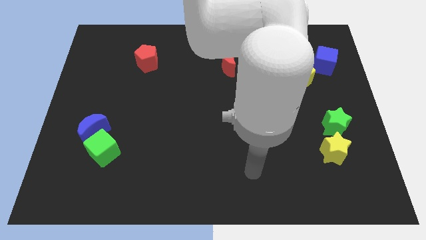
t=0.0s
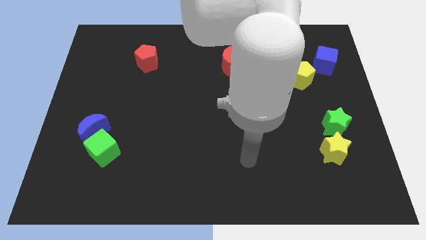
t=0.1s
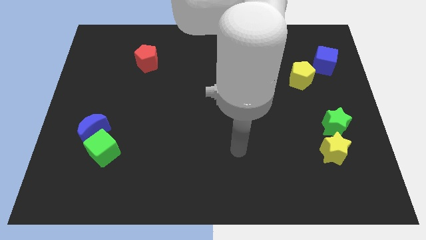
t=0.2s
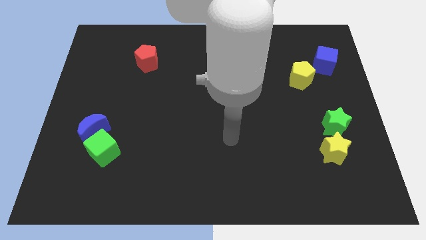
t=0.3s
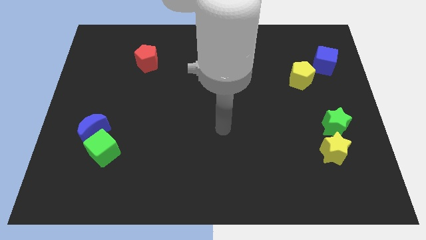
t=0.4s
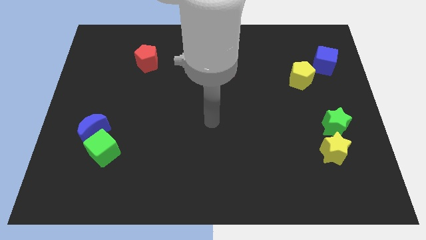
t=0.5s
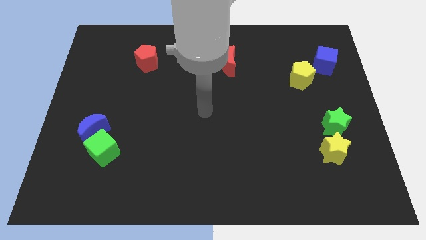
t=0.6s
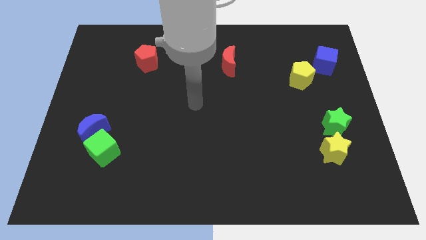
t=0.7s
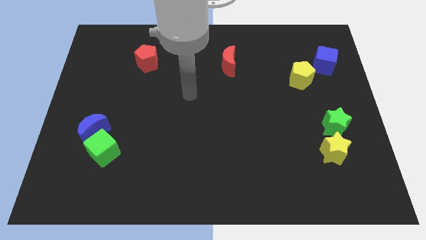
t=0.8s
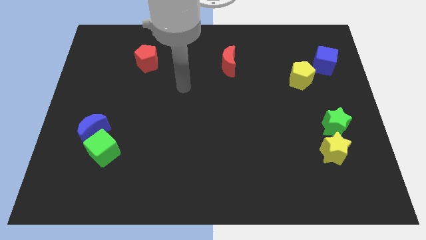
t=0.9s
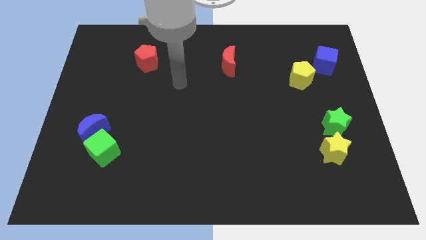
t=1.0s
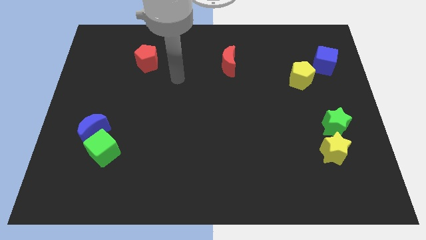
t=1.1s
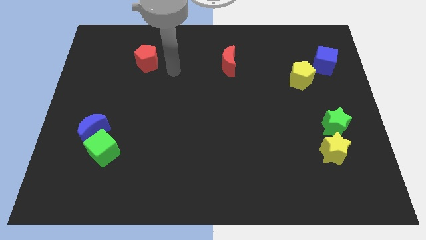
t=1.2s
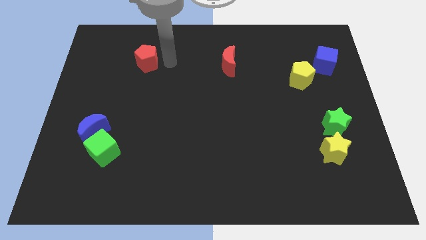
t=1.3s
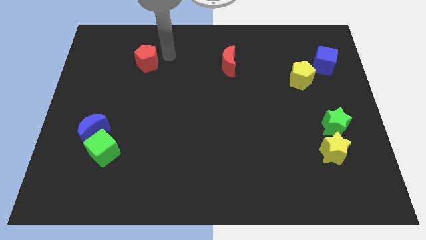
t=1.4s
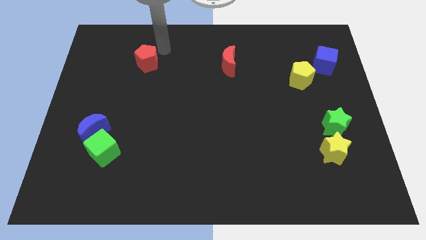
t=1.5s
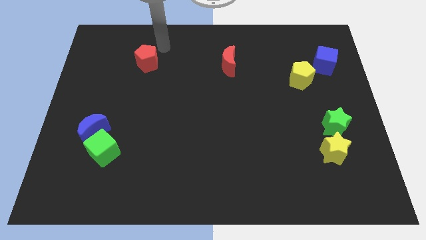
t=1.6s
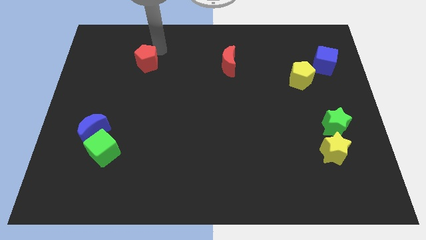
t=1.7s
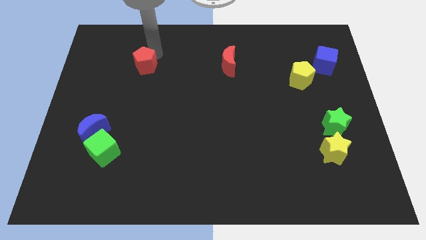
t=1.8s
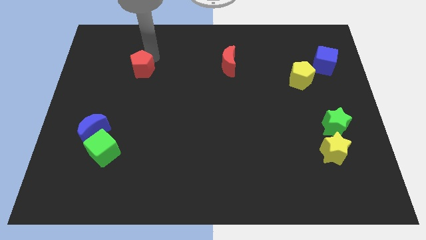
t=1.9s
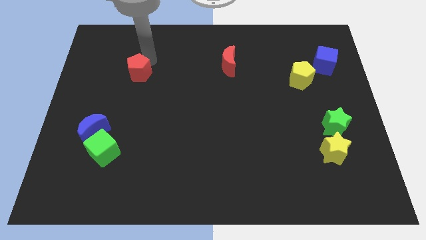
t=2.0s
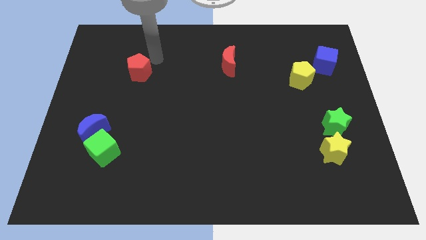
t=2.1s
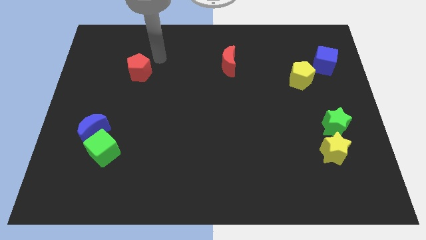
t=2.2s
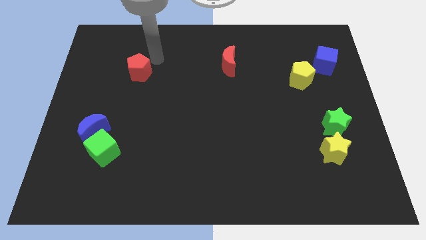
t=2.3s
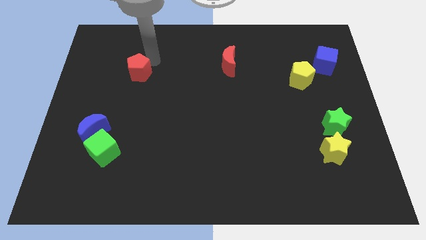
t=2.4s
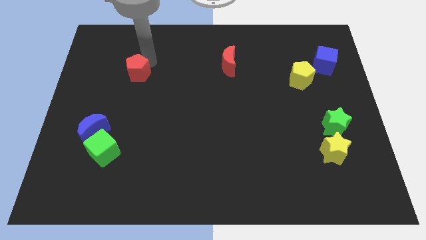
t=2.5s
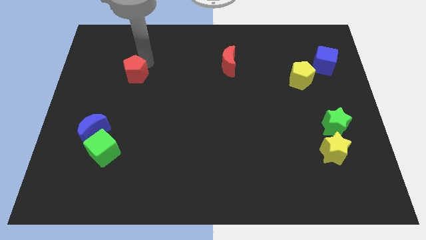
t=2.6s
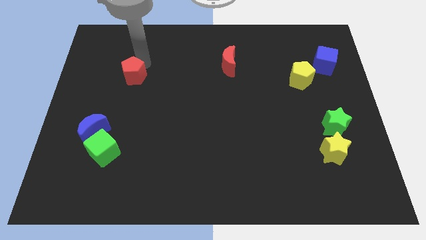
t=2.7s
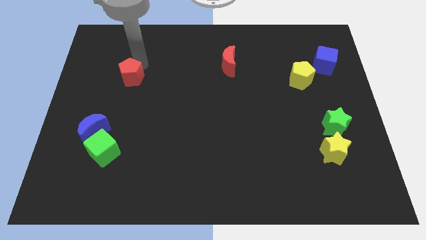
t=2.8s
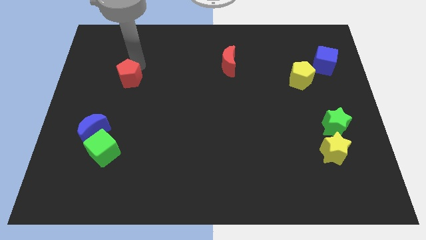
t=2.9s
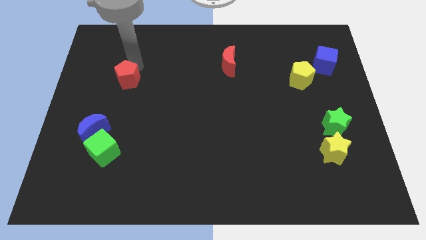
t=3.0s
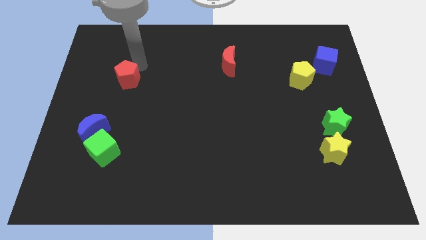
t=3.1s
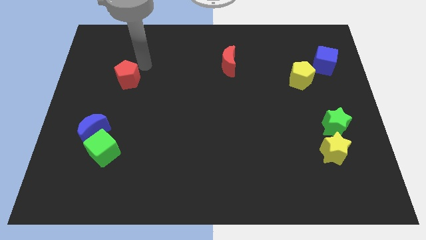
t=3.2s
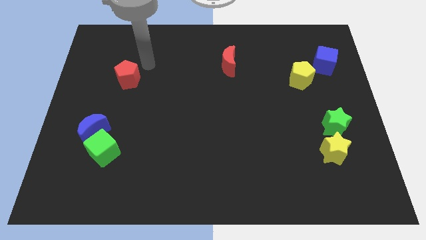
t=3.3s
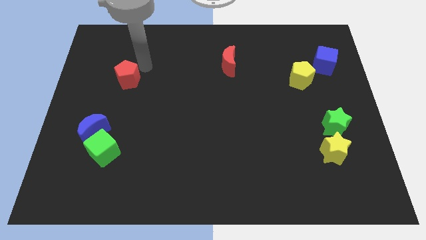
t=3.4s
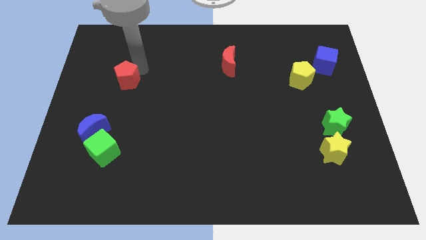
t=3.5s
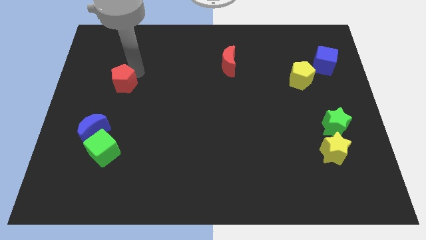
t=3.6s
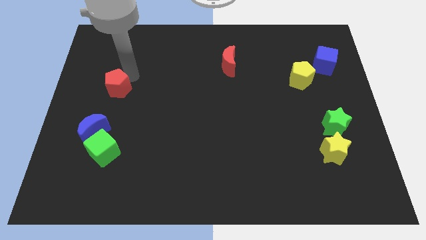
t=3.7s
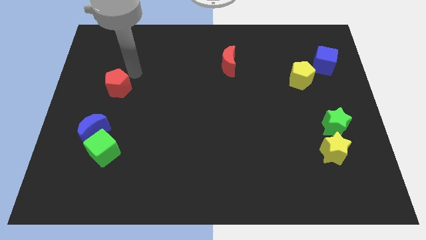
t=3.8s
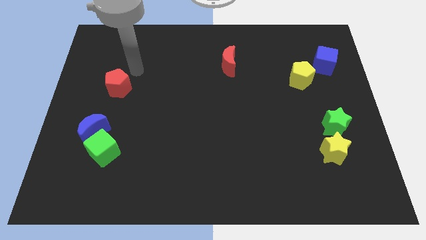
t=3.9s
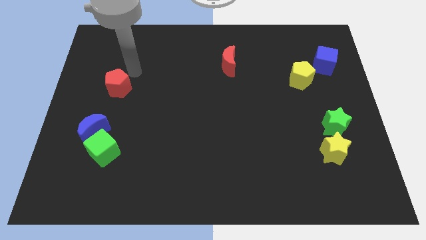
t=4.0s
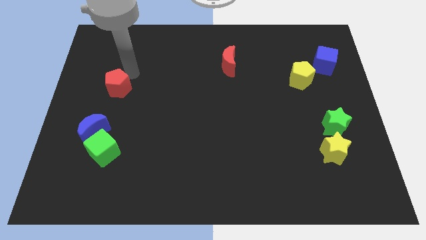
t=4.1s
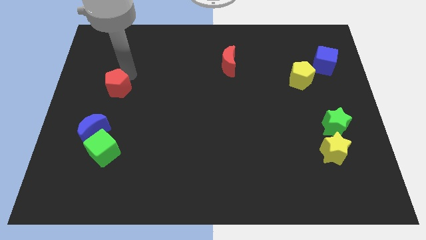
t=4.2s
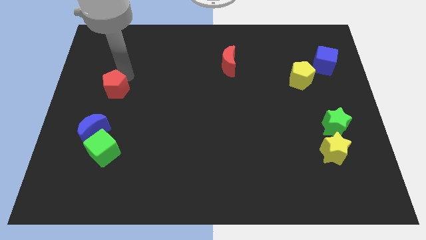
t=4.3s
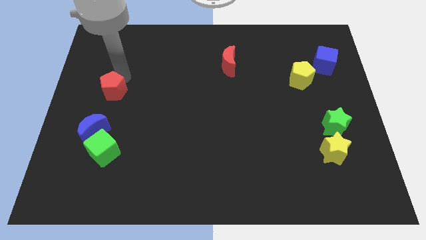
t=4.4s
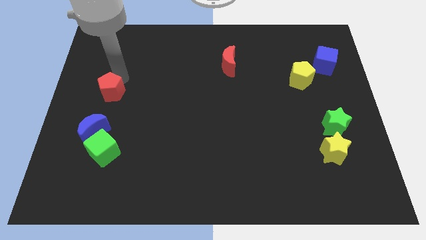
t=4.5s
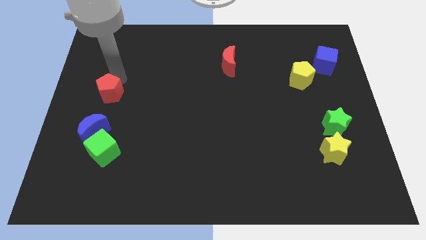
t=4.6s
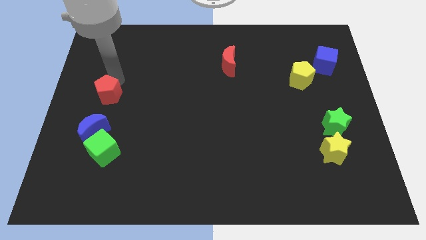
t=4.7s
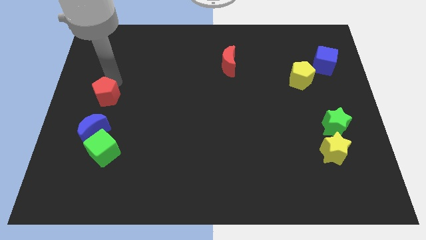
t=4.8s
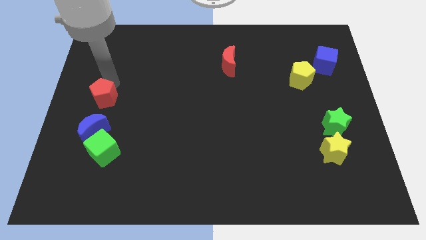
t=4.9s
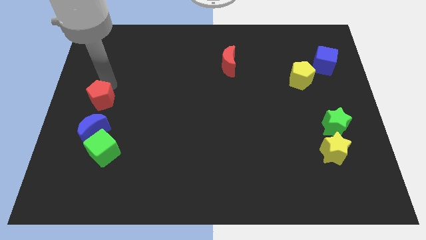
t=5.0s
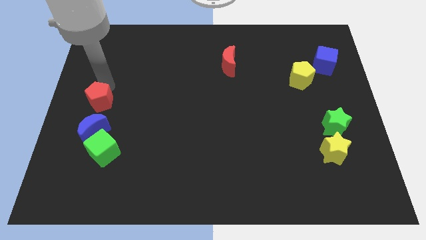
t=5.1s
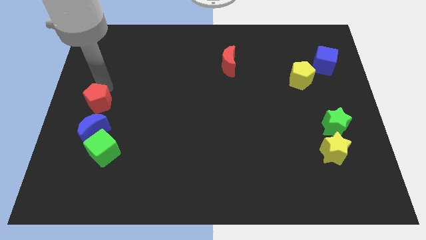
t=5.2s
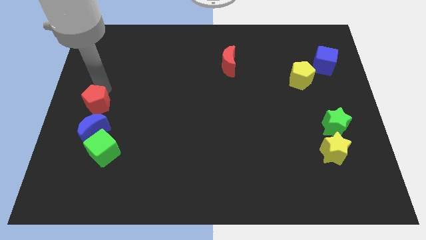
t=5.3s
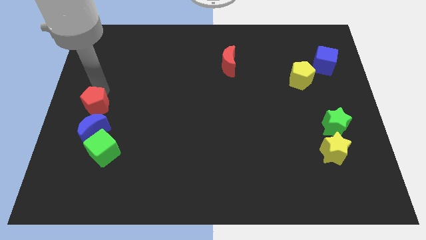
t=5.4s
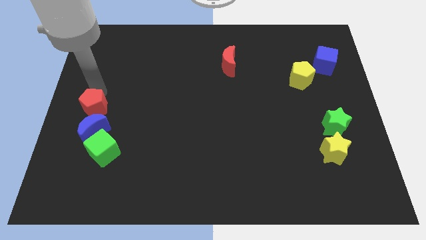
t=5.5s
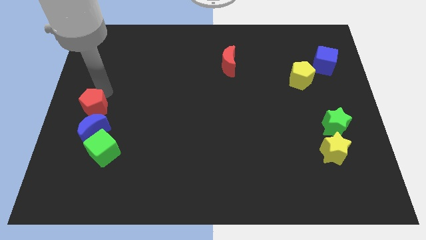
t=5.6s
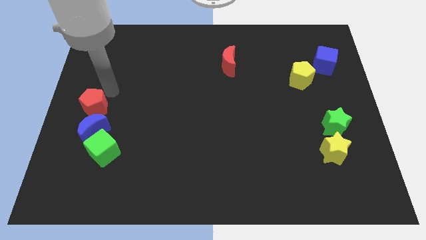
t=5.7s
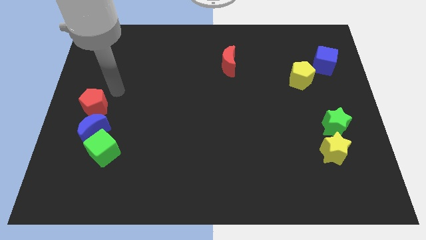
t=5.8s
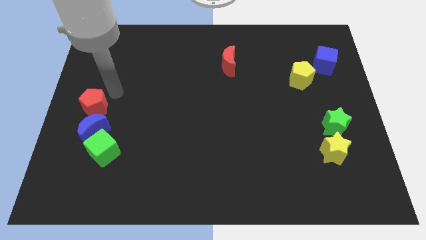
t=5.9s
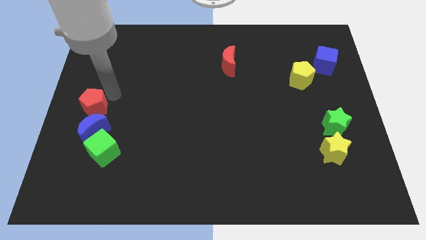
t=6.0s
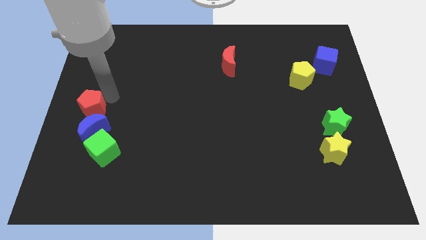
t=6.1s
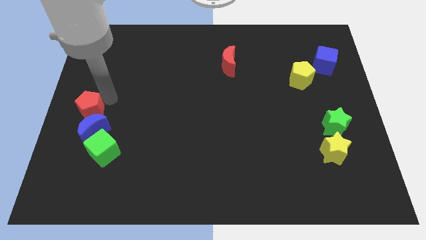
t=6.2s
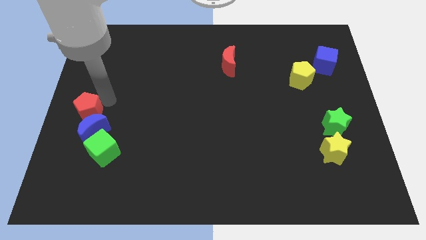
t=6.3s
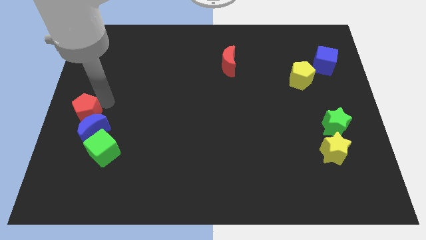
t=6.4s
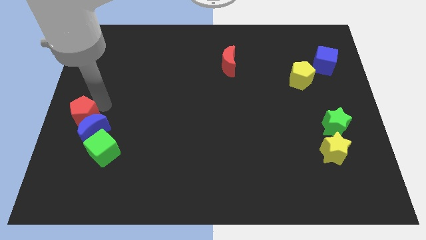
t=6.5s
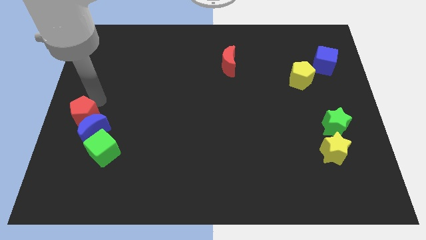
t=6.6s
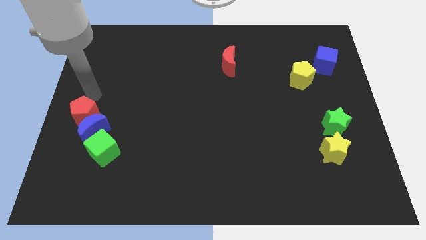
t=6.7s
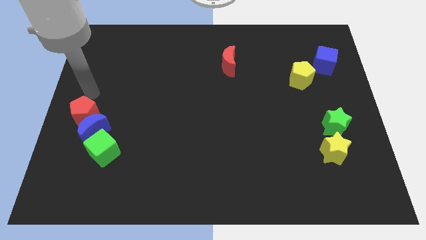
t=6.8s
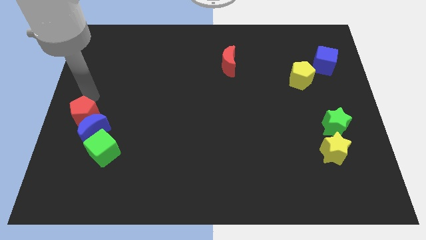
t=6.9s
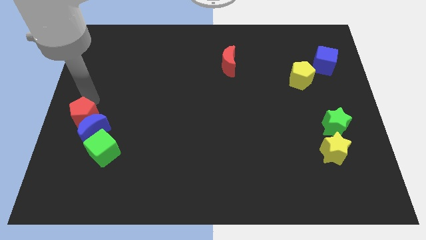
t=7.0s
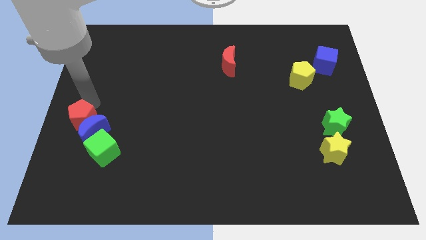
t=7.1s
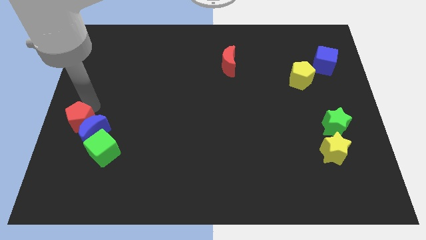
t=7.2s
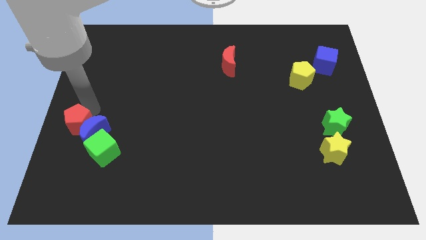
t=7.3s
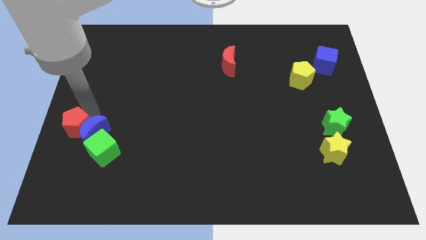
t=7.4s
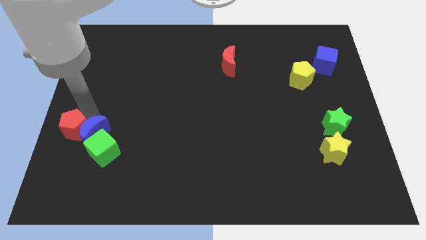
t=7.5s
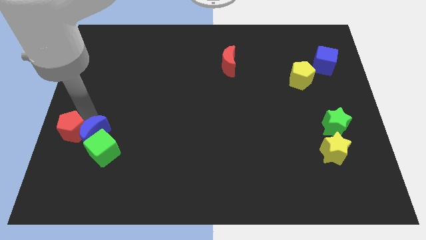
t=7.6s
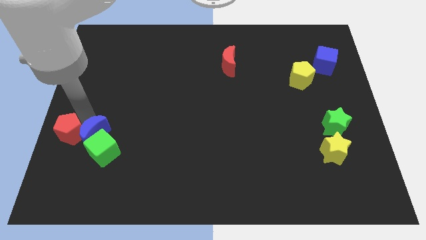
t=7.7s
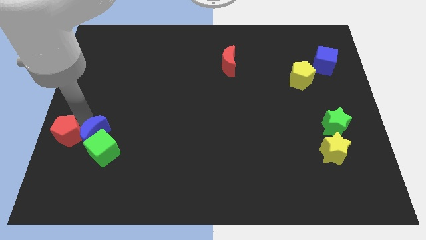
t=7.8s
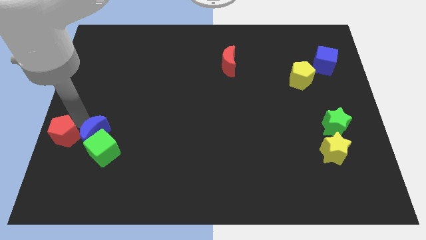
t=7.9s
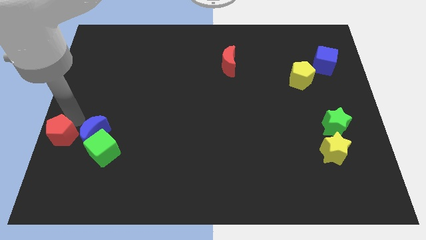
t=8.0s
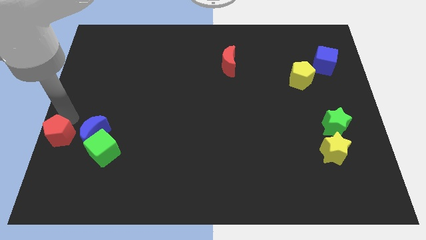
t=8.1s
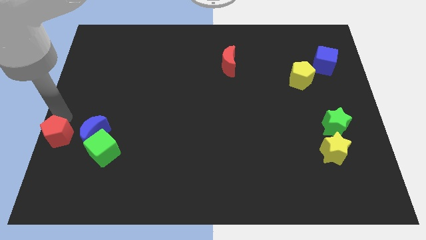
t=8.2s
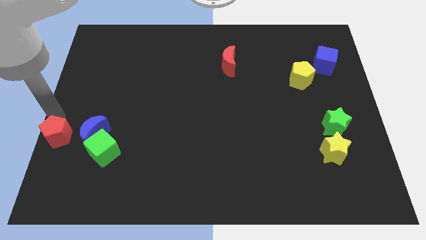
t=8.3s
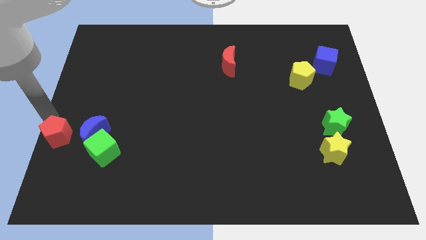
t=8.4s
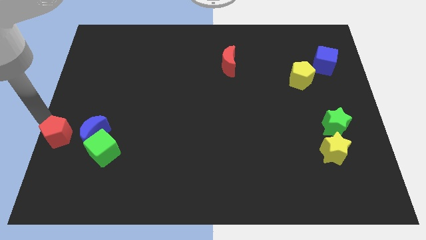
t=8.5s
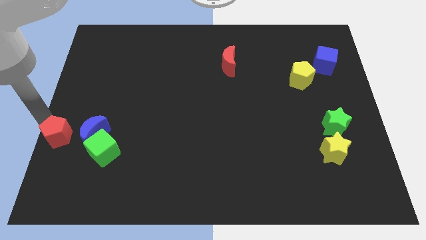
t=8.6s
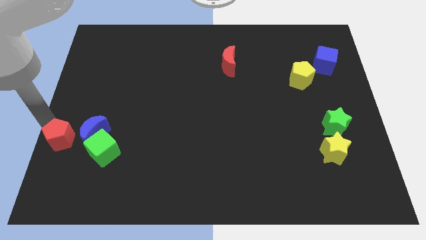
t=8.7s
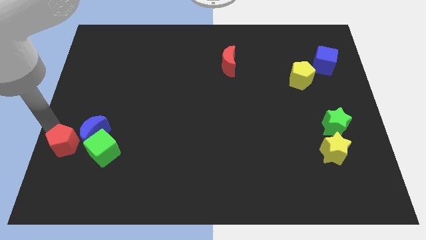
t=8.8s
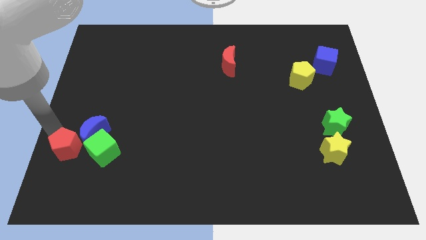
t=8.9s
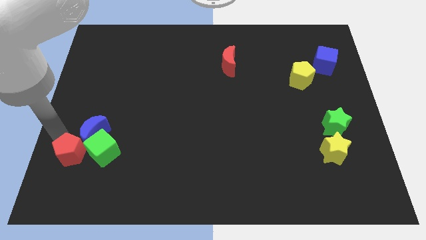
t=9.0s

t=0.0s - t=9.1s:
slide the red pentagon diagonally down and to the left of the green cube
